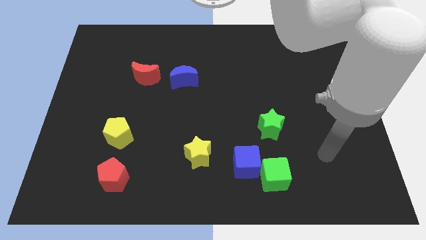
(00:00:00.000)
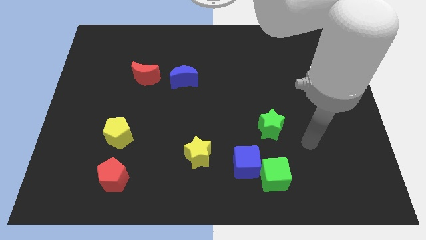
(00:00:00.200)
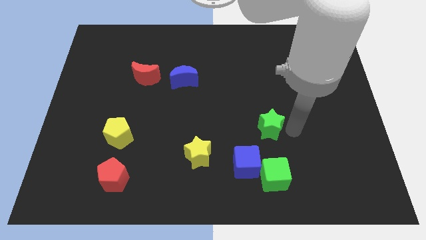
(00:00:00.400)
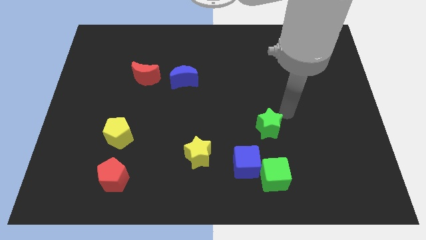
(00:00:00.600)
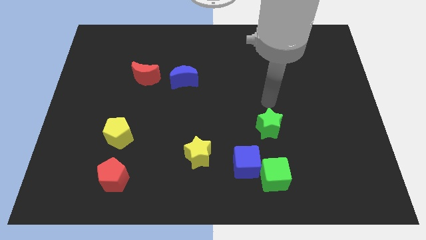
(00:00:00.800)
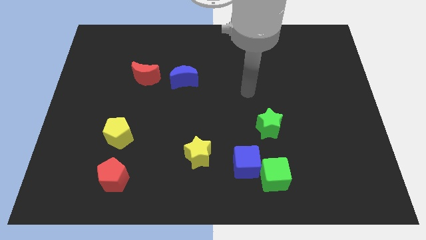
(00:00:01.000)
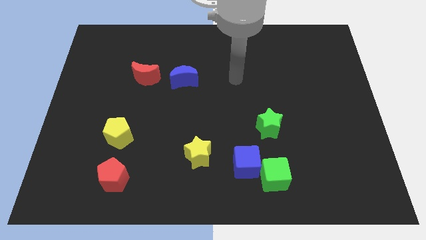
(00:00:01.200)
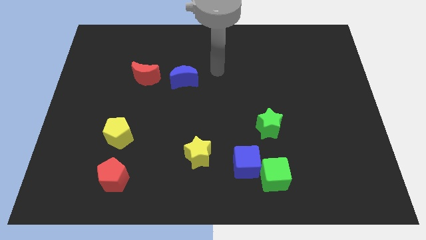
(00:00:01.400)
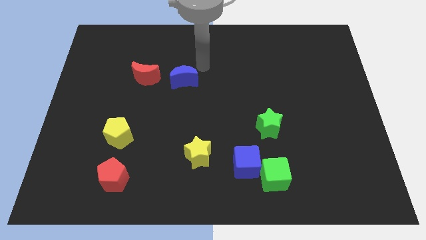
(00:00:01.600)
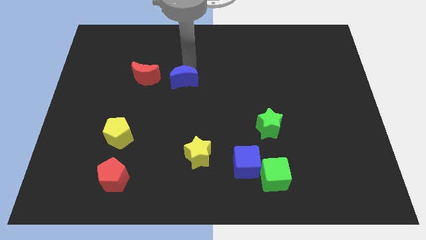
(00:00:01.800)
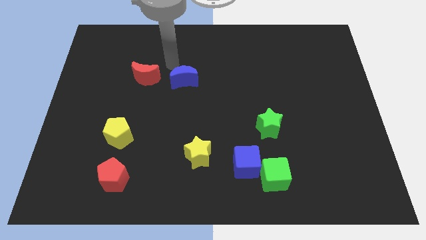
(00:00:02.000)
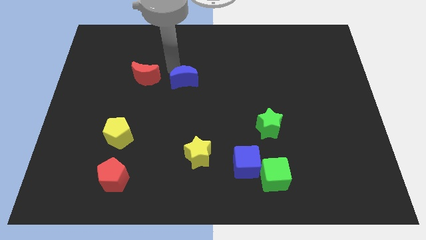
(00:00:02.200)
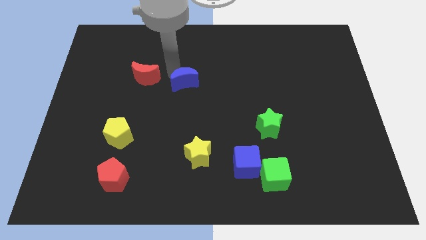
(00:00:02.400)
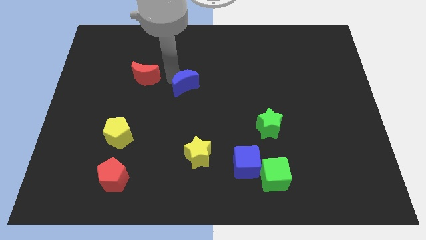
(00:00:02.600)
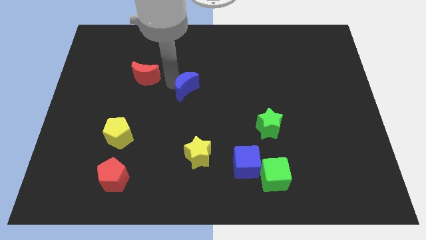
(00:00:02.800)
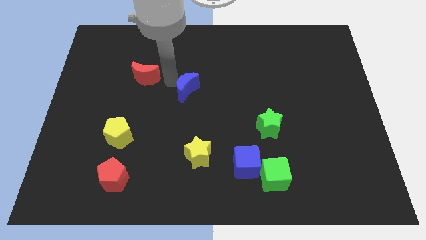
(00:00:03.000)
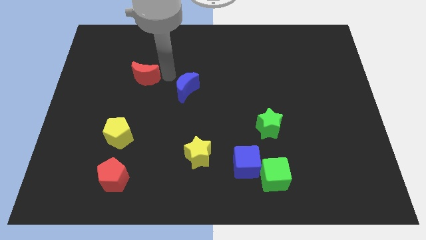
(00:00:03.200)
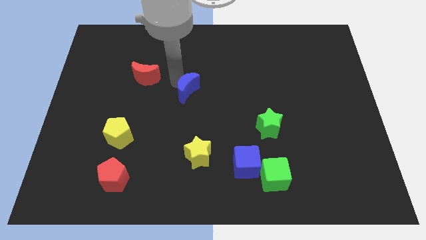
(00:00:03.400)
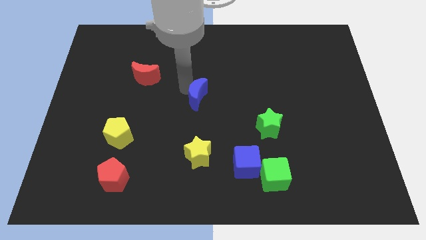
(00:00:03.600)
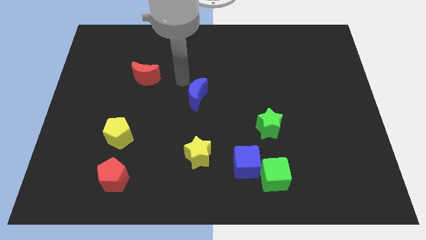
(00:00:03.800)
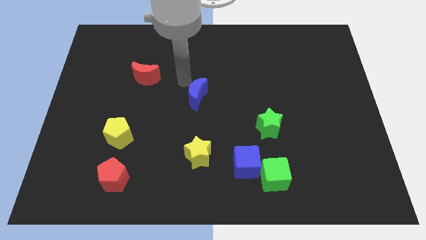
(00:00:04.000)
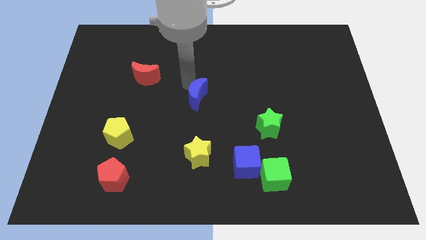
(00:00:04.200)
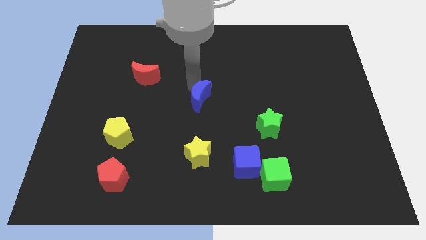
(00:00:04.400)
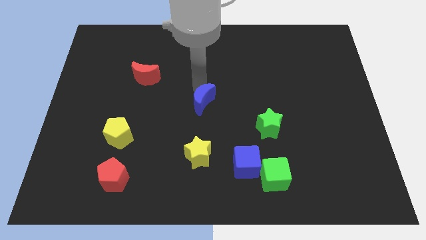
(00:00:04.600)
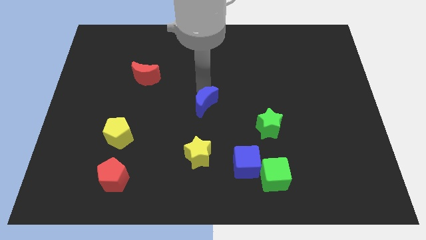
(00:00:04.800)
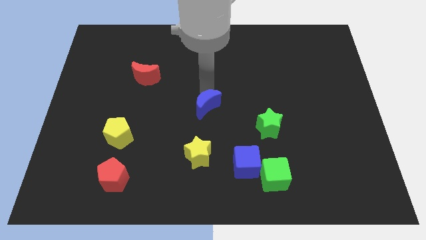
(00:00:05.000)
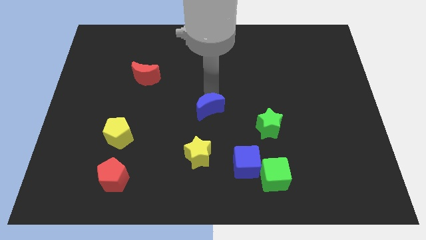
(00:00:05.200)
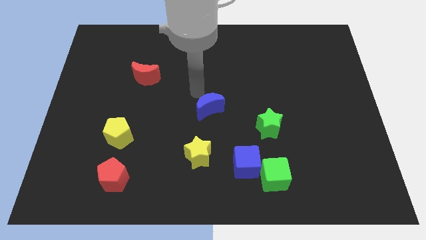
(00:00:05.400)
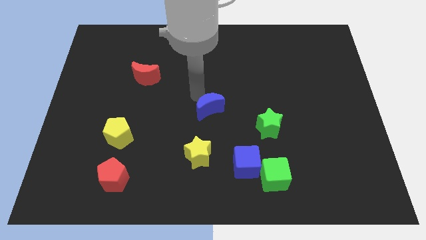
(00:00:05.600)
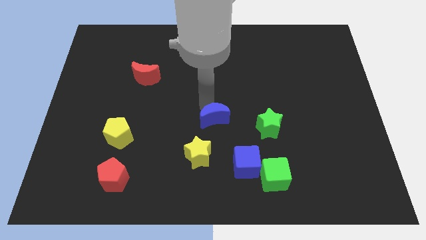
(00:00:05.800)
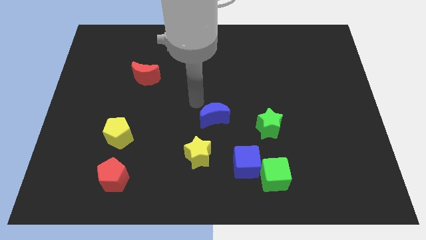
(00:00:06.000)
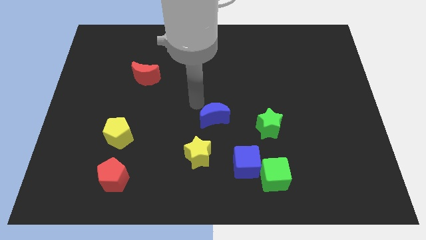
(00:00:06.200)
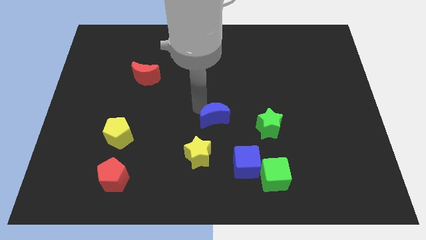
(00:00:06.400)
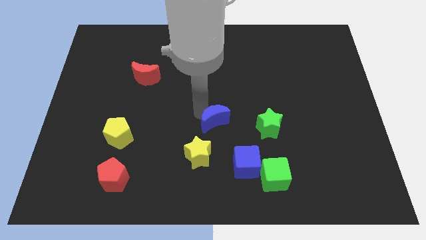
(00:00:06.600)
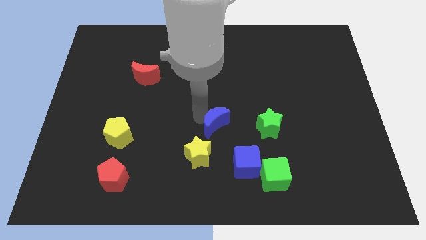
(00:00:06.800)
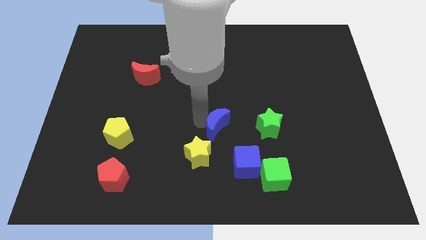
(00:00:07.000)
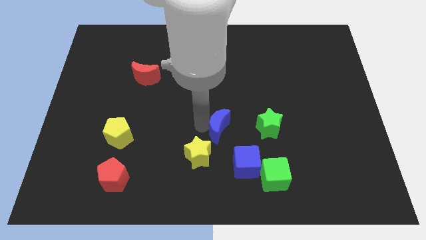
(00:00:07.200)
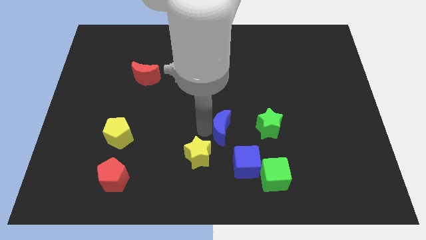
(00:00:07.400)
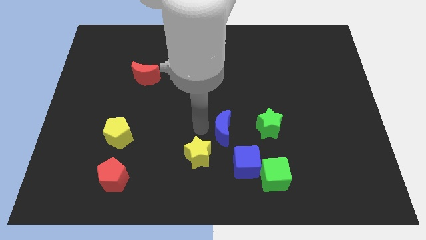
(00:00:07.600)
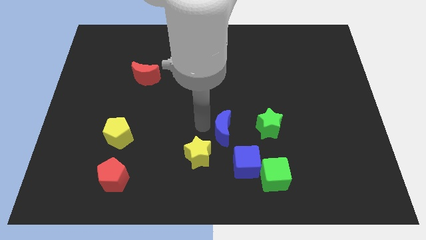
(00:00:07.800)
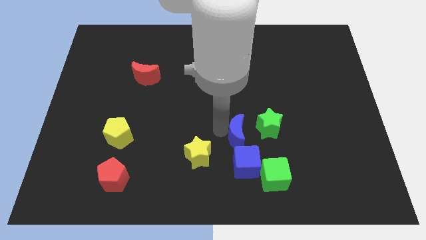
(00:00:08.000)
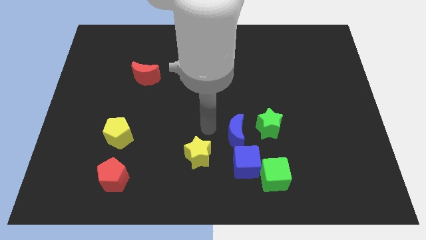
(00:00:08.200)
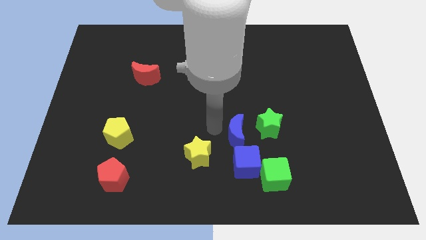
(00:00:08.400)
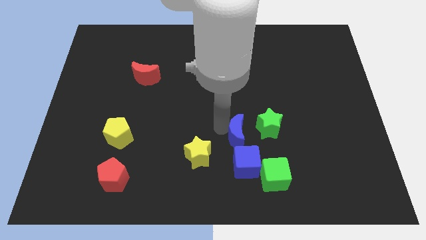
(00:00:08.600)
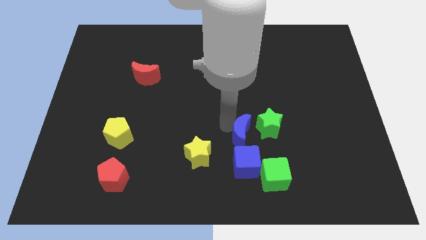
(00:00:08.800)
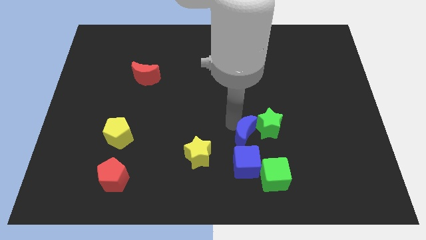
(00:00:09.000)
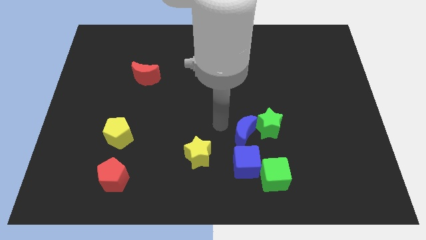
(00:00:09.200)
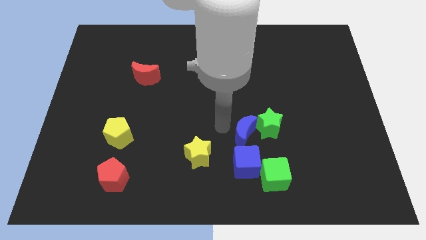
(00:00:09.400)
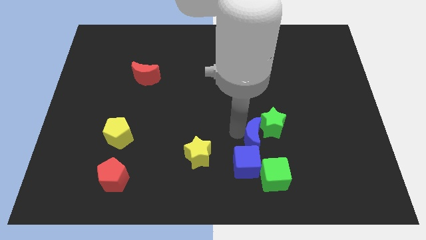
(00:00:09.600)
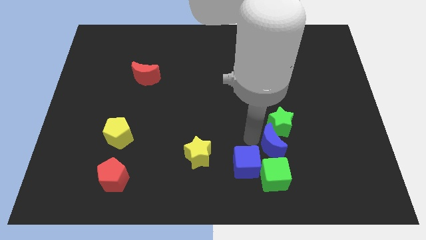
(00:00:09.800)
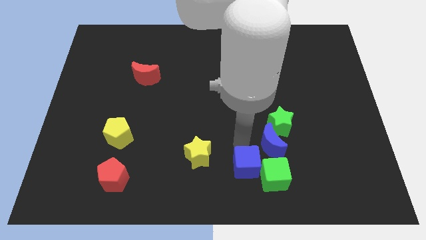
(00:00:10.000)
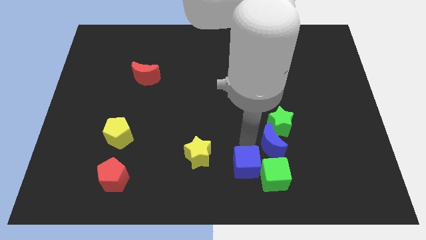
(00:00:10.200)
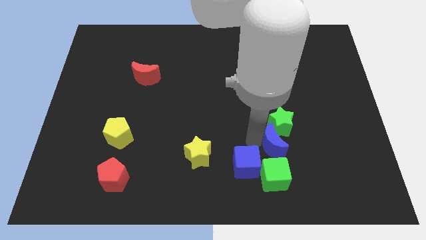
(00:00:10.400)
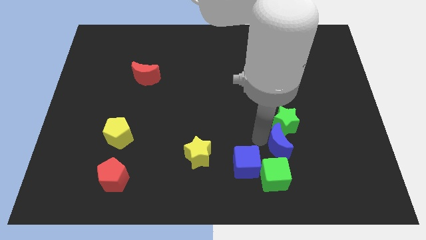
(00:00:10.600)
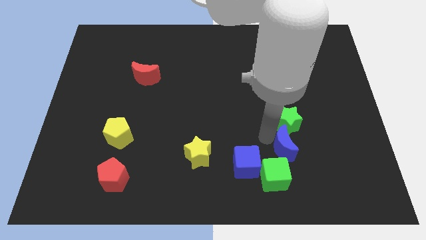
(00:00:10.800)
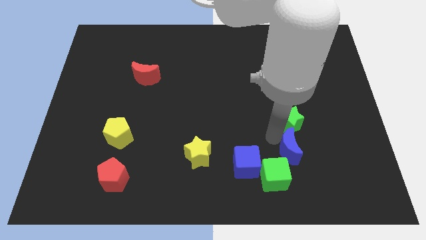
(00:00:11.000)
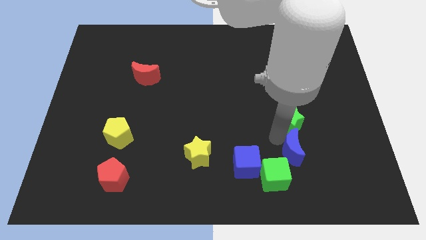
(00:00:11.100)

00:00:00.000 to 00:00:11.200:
slide the blue moon to the bottom right side of the green star

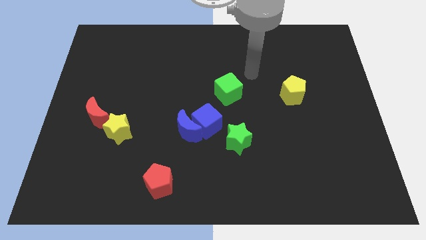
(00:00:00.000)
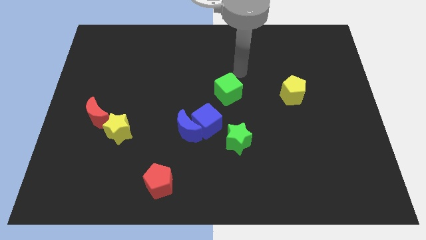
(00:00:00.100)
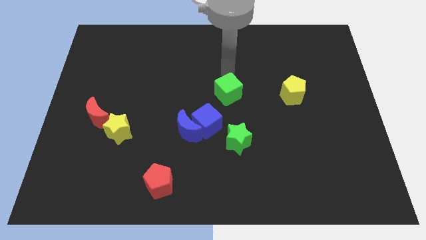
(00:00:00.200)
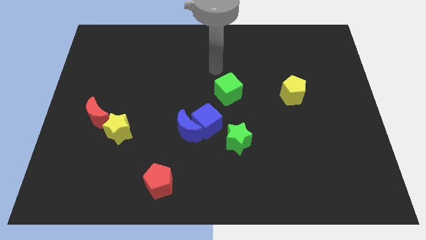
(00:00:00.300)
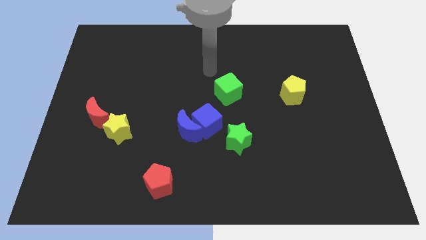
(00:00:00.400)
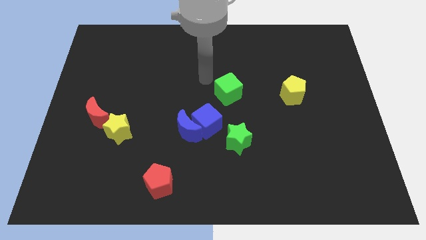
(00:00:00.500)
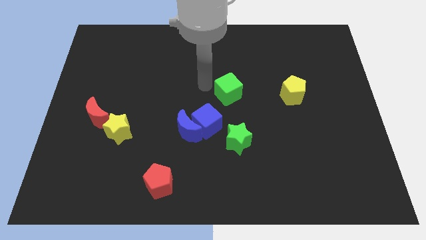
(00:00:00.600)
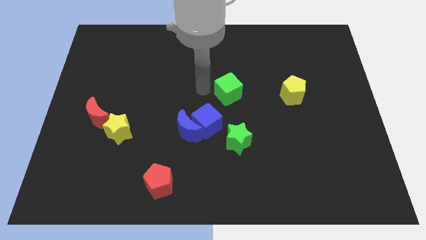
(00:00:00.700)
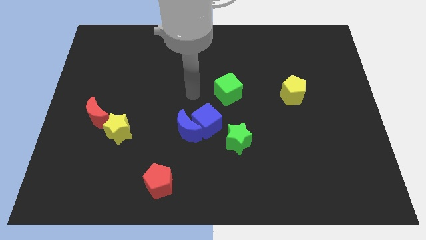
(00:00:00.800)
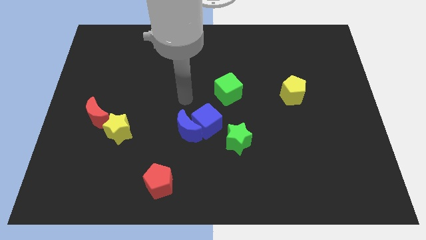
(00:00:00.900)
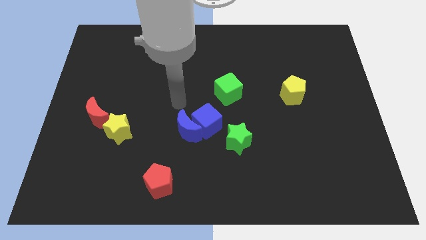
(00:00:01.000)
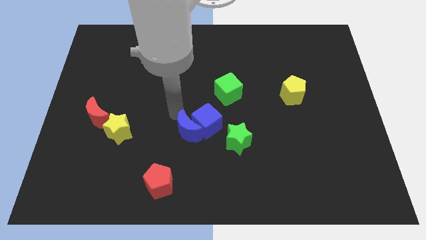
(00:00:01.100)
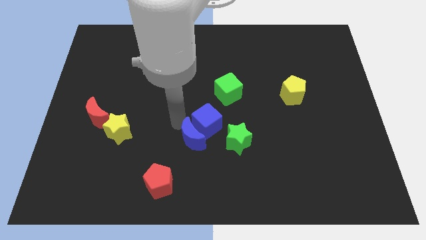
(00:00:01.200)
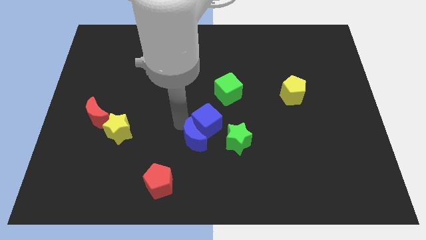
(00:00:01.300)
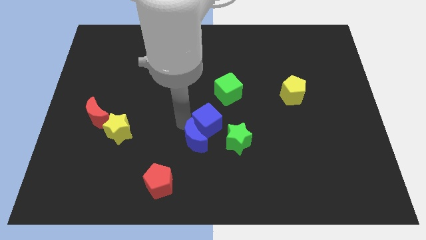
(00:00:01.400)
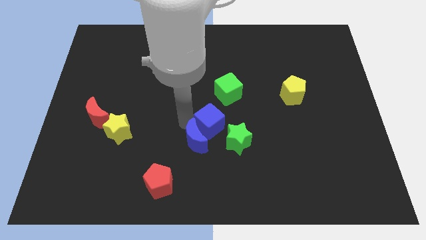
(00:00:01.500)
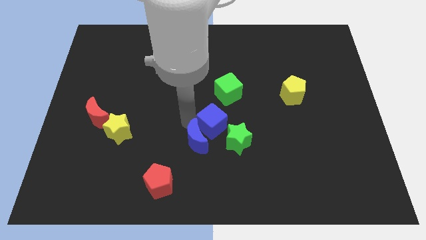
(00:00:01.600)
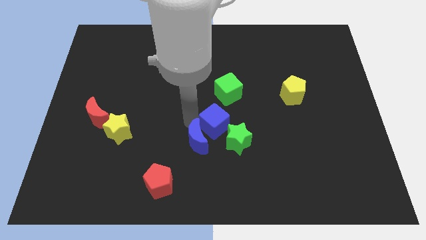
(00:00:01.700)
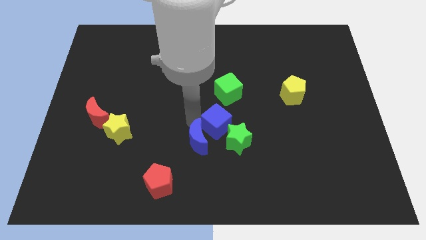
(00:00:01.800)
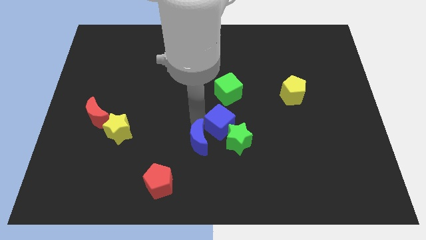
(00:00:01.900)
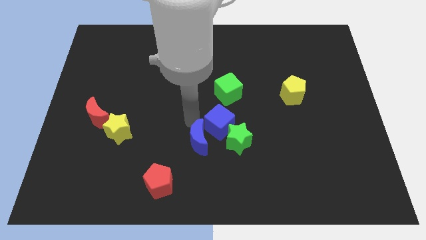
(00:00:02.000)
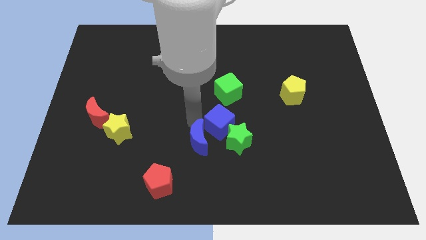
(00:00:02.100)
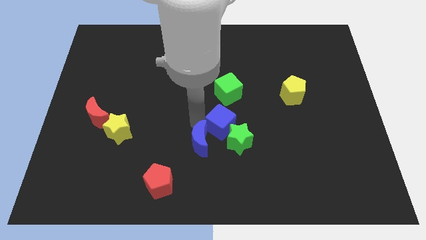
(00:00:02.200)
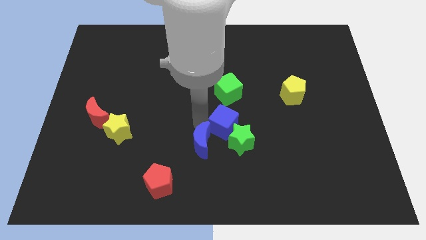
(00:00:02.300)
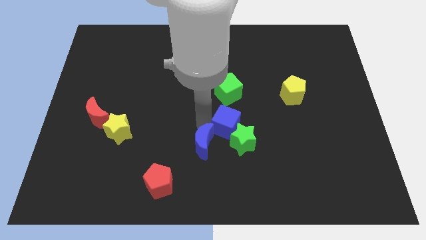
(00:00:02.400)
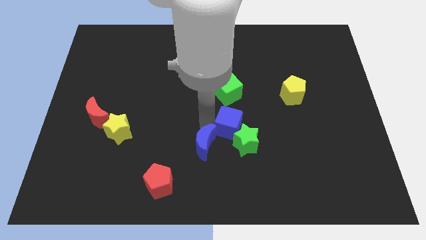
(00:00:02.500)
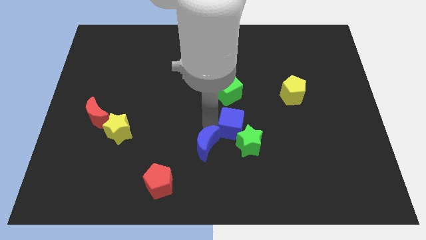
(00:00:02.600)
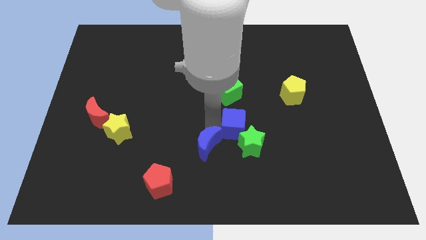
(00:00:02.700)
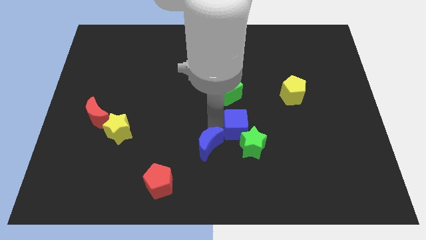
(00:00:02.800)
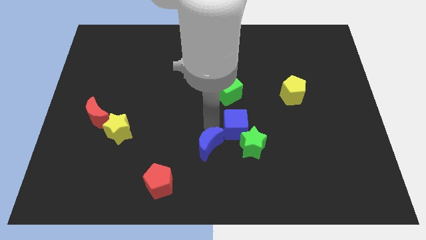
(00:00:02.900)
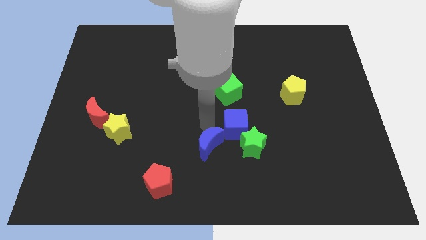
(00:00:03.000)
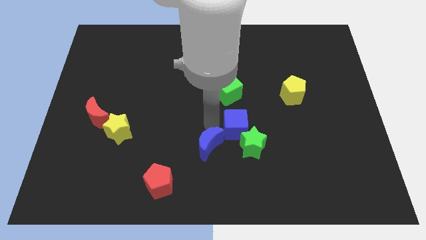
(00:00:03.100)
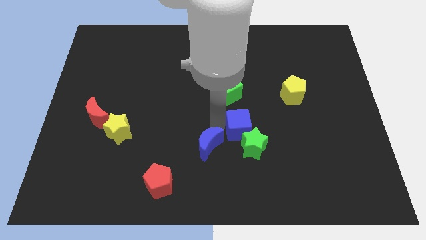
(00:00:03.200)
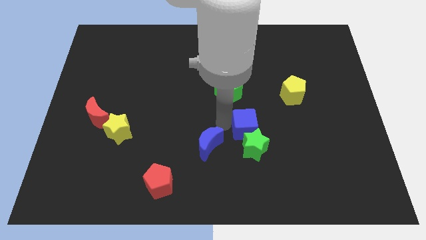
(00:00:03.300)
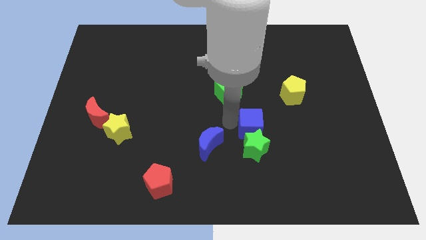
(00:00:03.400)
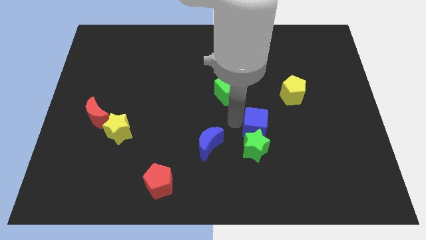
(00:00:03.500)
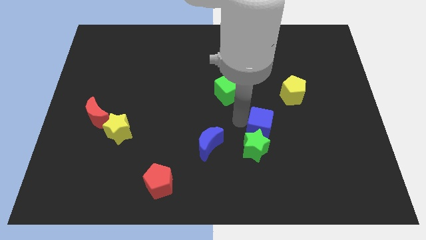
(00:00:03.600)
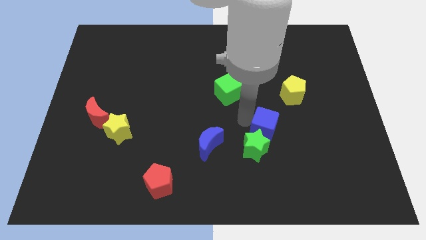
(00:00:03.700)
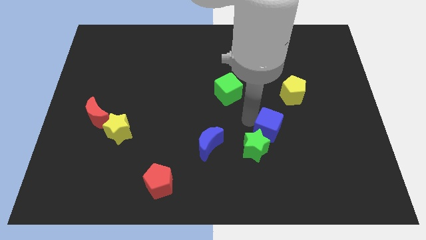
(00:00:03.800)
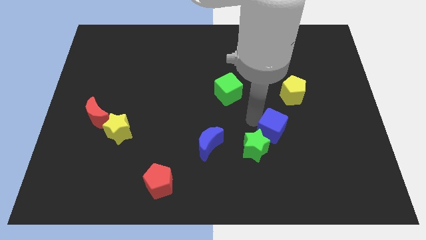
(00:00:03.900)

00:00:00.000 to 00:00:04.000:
push the blue cube to the right of the green star
